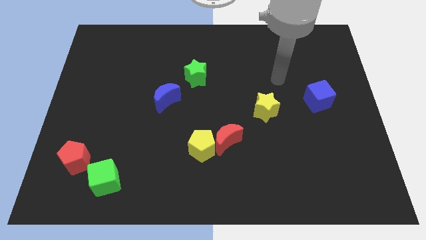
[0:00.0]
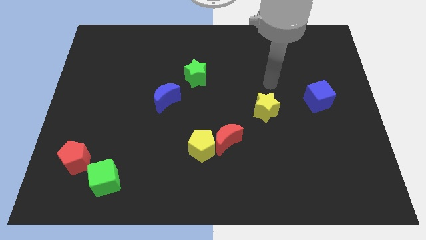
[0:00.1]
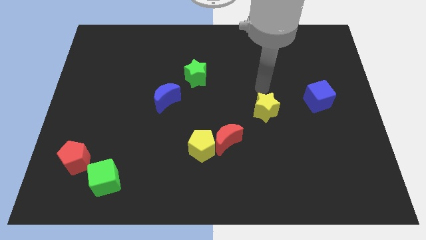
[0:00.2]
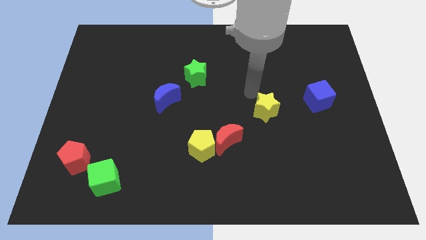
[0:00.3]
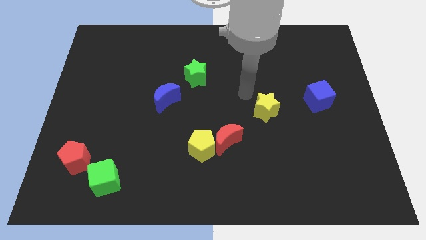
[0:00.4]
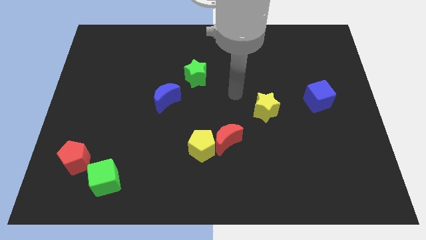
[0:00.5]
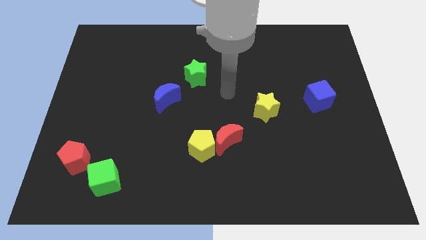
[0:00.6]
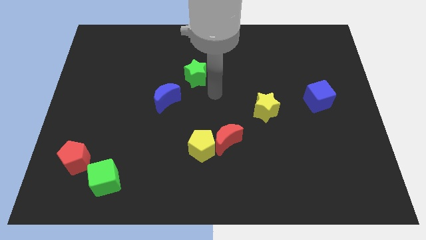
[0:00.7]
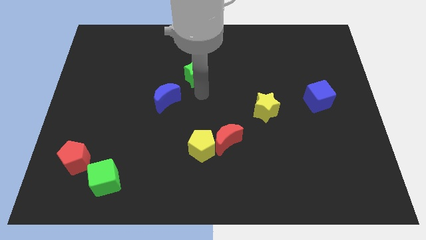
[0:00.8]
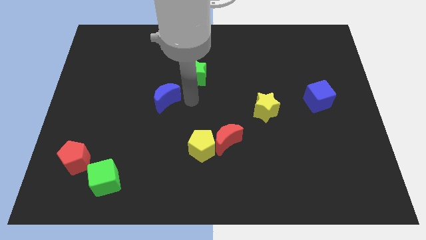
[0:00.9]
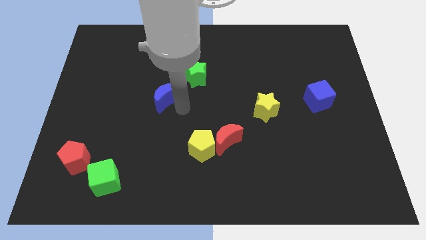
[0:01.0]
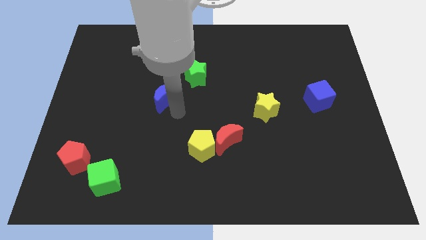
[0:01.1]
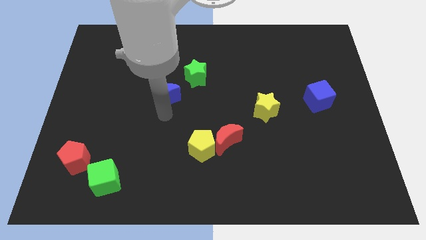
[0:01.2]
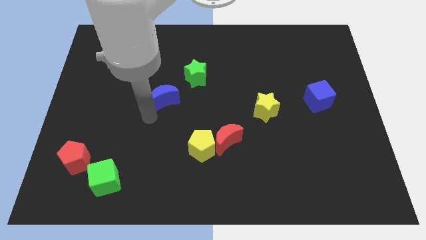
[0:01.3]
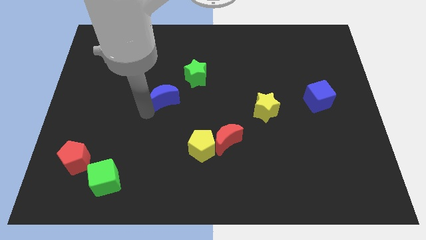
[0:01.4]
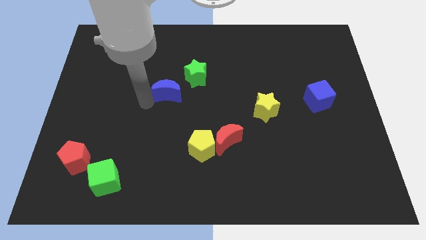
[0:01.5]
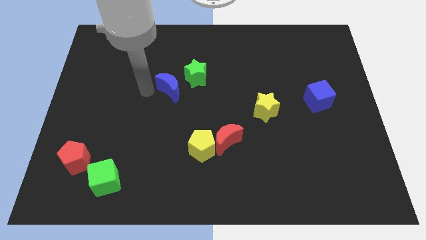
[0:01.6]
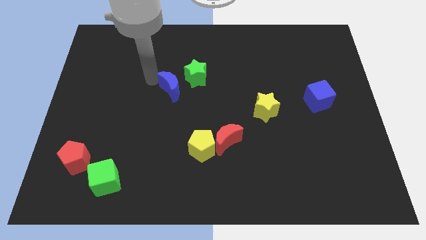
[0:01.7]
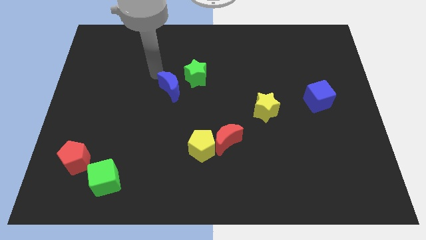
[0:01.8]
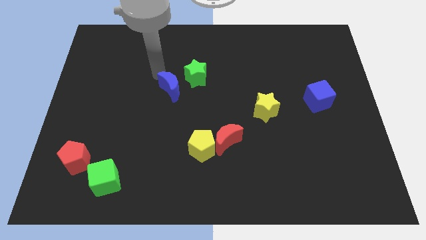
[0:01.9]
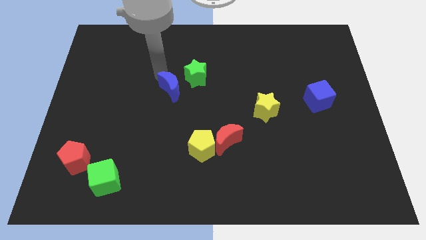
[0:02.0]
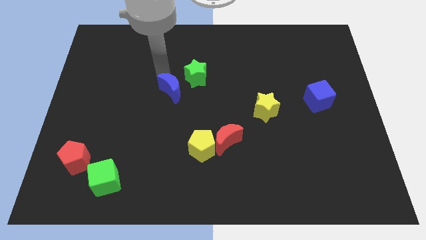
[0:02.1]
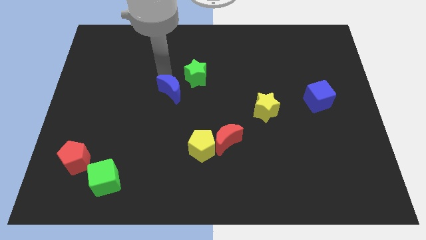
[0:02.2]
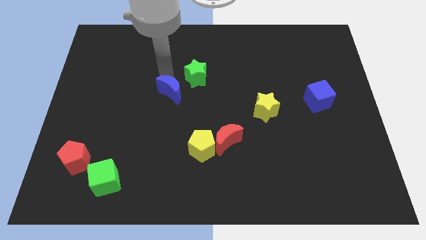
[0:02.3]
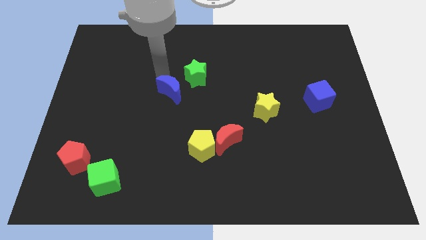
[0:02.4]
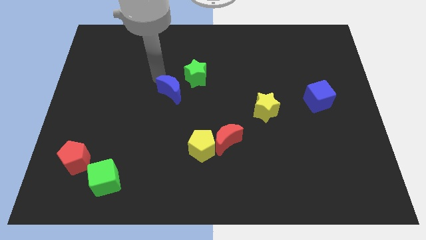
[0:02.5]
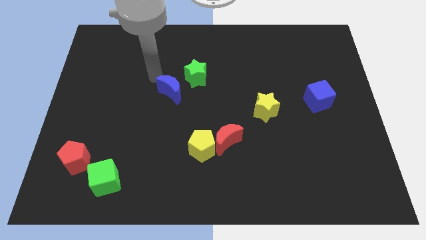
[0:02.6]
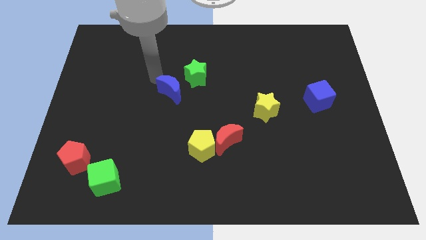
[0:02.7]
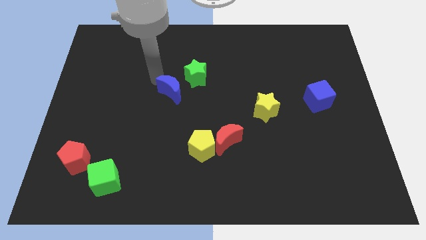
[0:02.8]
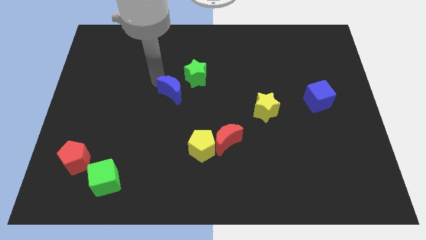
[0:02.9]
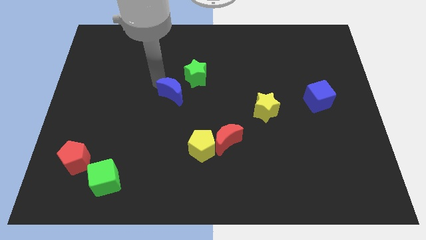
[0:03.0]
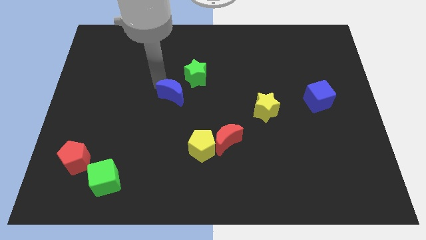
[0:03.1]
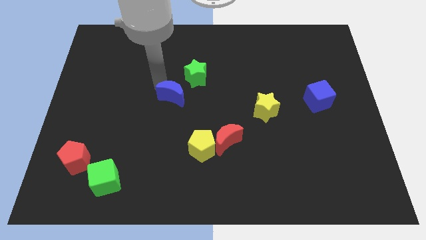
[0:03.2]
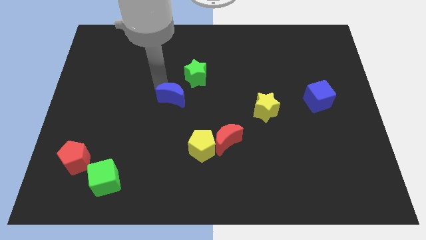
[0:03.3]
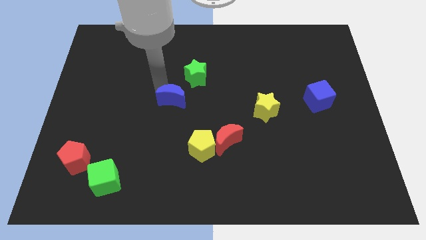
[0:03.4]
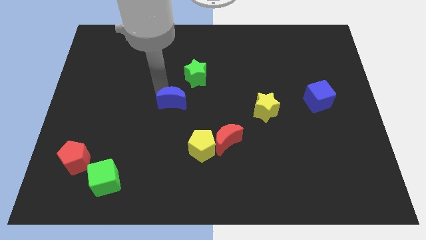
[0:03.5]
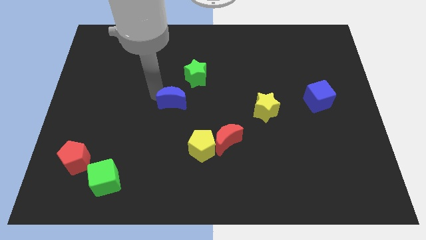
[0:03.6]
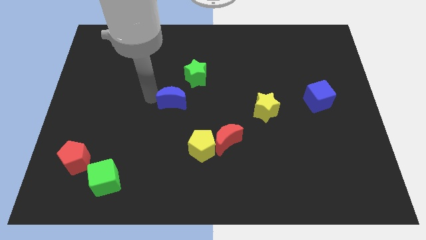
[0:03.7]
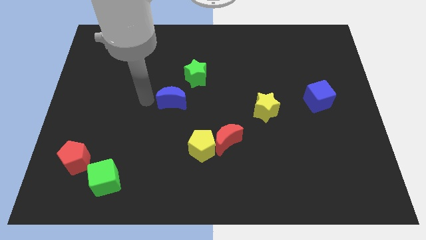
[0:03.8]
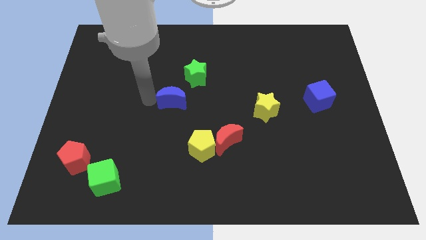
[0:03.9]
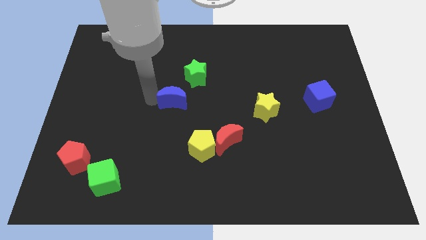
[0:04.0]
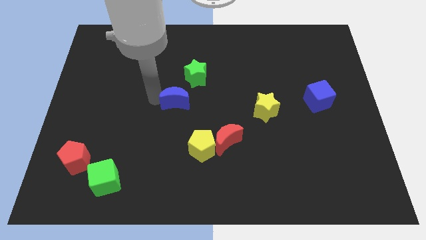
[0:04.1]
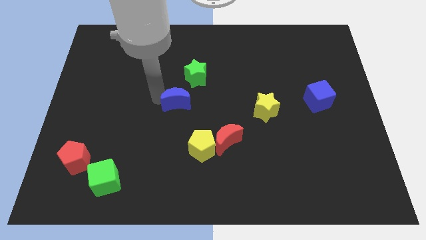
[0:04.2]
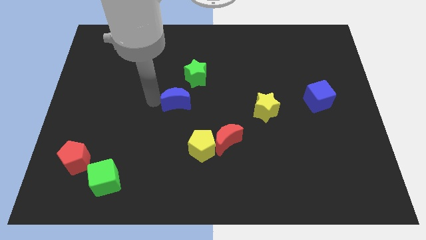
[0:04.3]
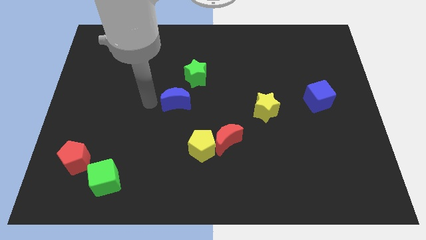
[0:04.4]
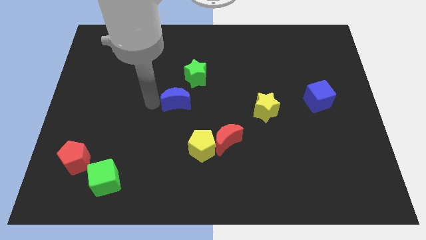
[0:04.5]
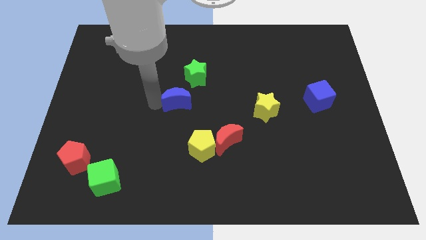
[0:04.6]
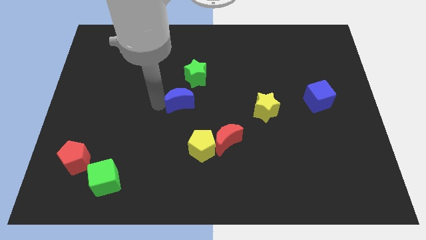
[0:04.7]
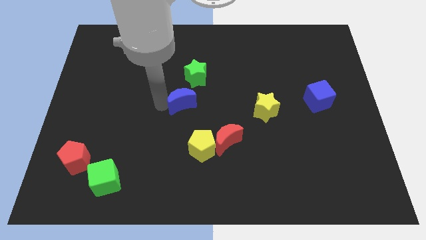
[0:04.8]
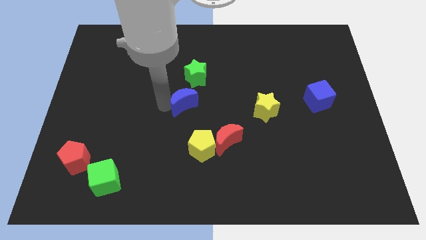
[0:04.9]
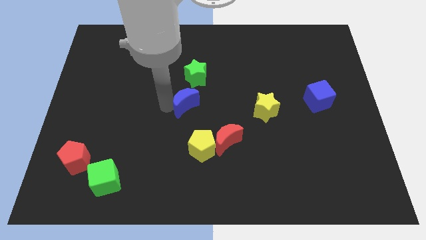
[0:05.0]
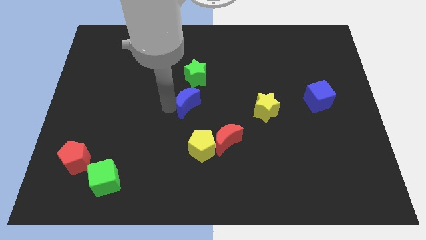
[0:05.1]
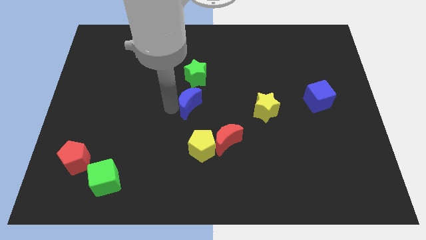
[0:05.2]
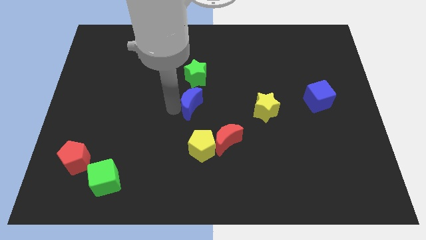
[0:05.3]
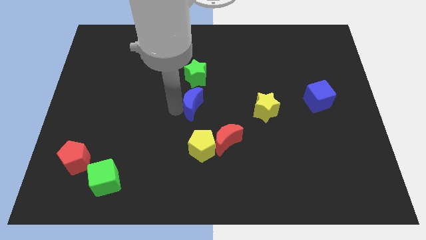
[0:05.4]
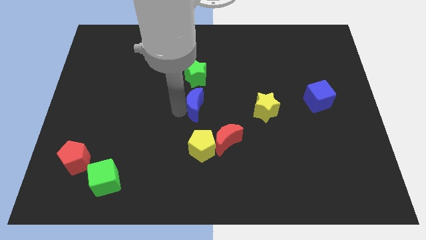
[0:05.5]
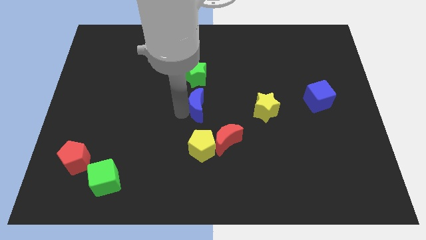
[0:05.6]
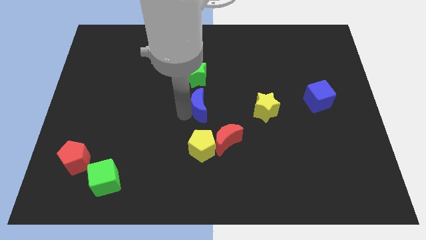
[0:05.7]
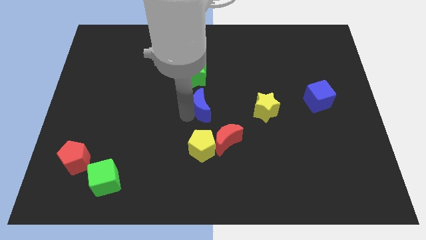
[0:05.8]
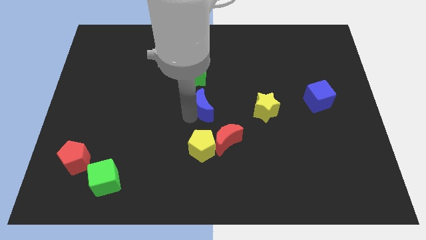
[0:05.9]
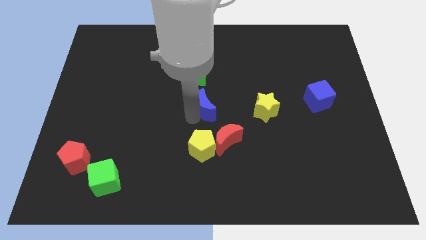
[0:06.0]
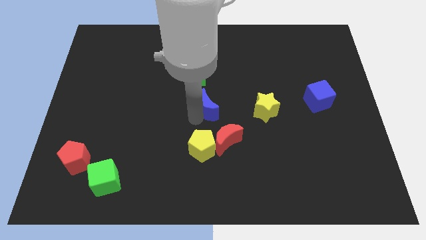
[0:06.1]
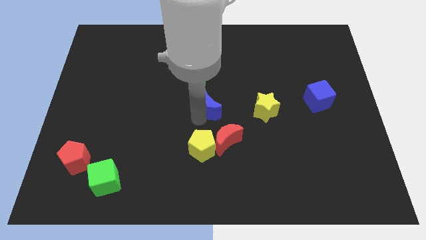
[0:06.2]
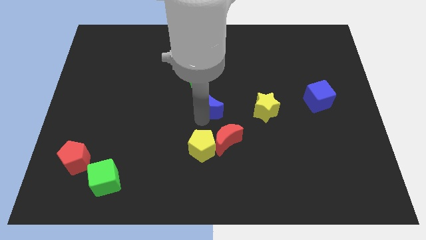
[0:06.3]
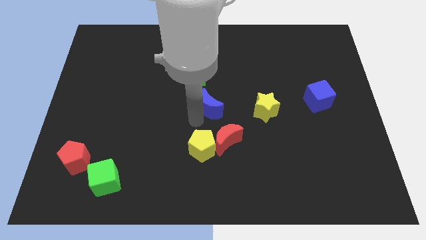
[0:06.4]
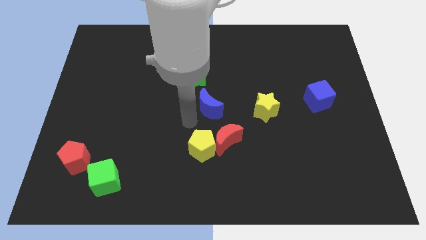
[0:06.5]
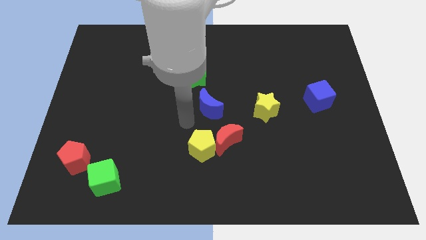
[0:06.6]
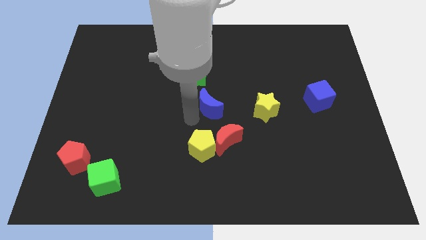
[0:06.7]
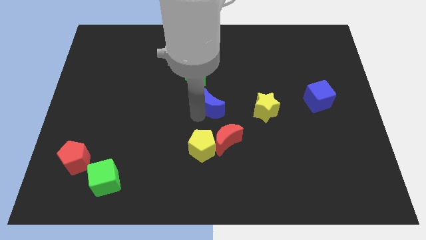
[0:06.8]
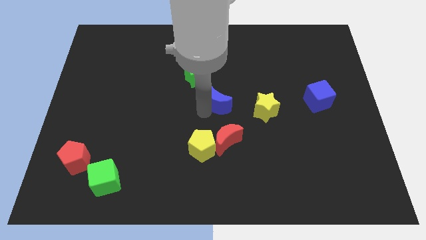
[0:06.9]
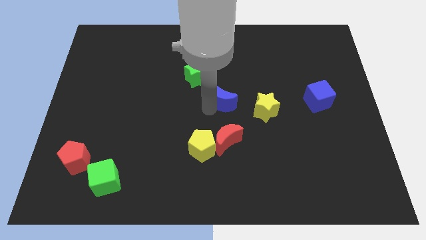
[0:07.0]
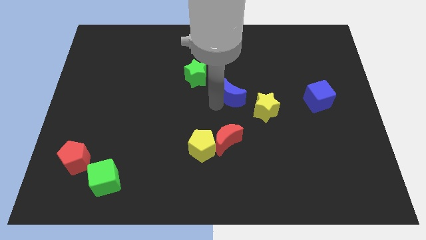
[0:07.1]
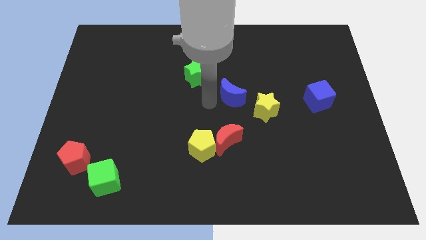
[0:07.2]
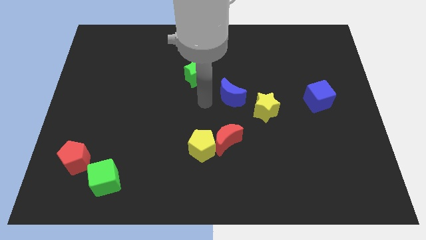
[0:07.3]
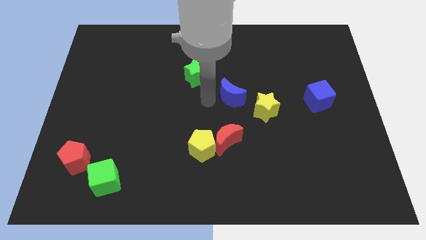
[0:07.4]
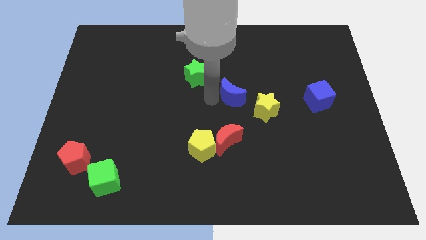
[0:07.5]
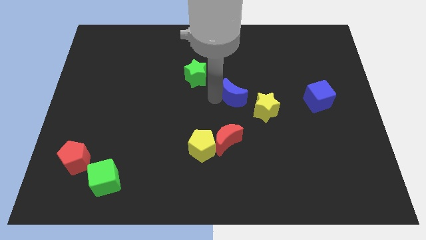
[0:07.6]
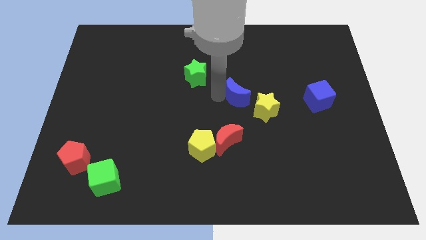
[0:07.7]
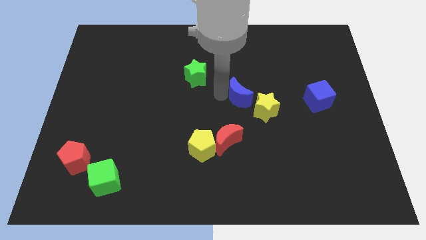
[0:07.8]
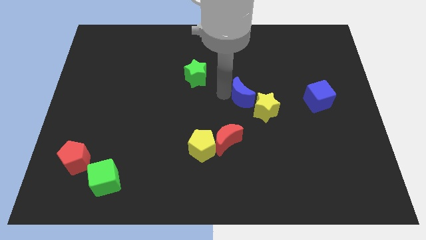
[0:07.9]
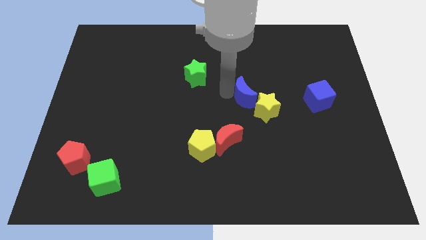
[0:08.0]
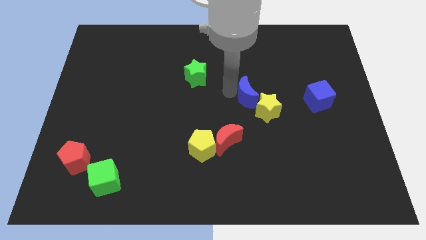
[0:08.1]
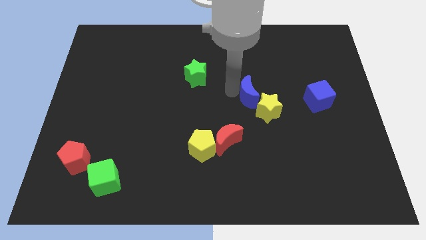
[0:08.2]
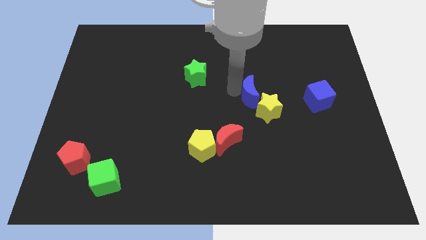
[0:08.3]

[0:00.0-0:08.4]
slide the blue moon to the right
